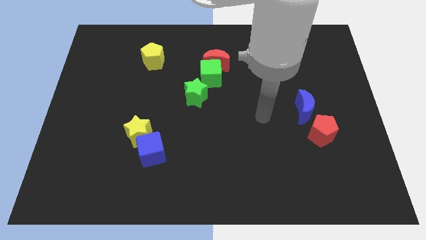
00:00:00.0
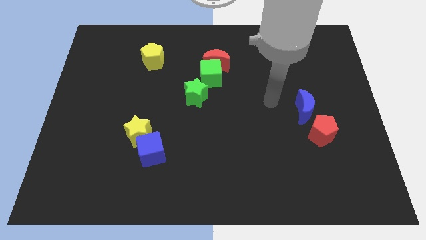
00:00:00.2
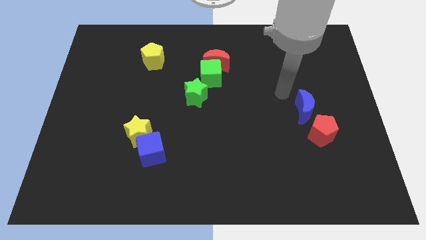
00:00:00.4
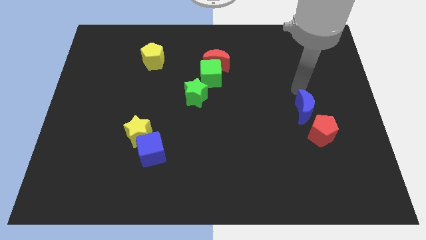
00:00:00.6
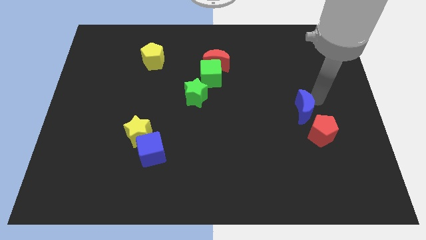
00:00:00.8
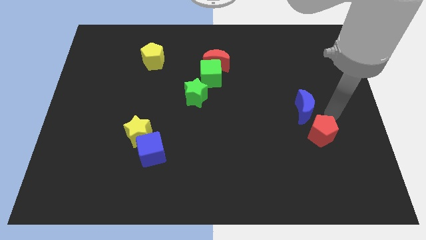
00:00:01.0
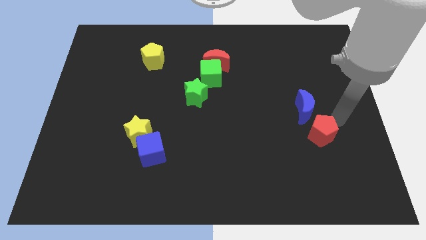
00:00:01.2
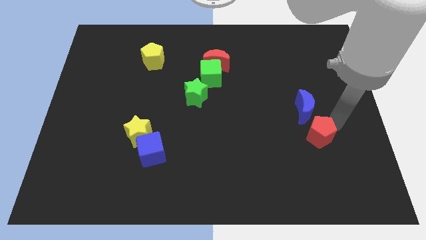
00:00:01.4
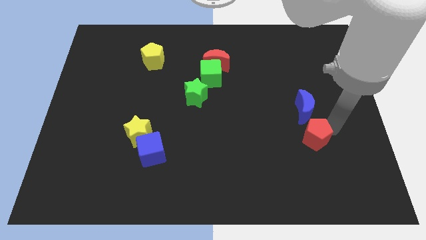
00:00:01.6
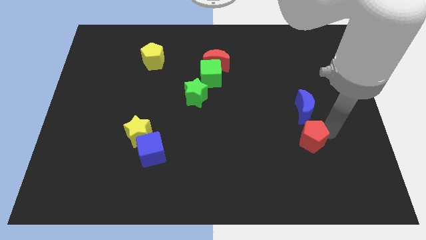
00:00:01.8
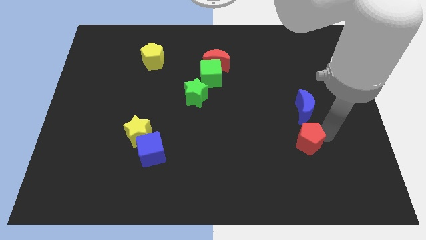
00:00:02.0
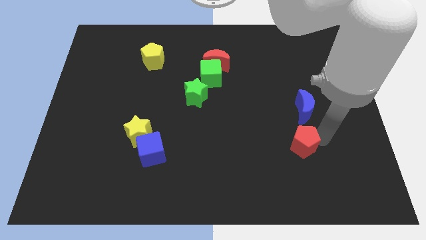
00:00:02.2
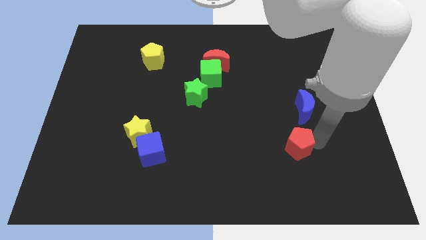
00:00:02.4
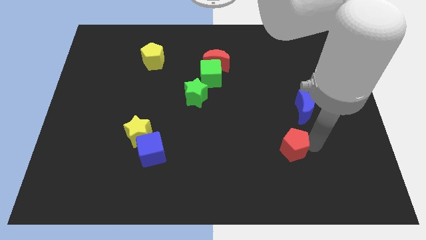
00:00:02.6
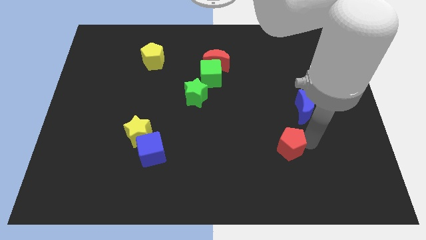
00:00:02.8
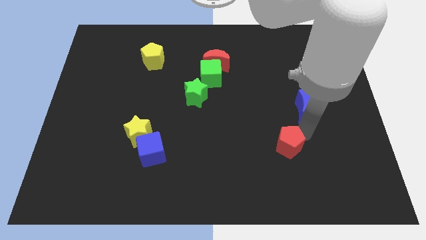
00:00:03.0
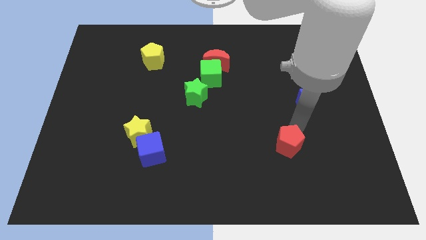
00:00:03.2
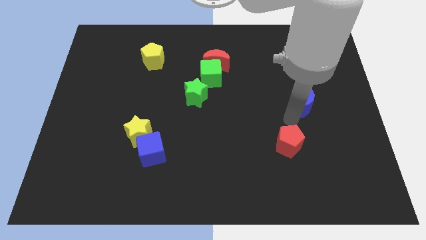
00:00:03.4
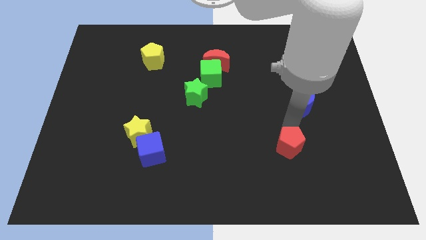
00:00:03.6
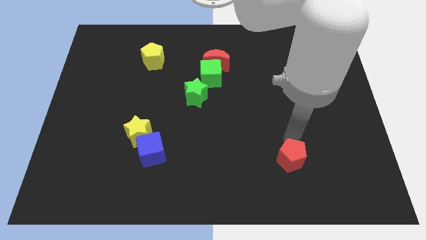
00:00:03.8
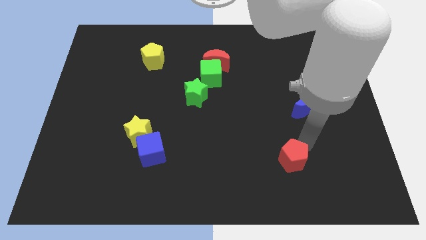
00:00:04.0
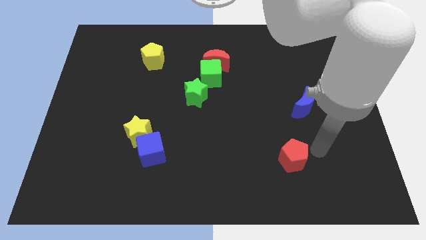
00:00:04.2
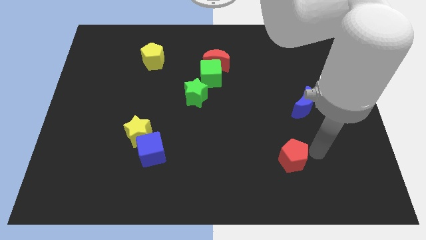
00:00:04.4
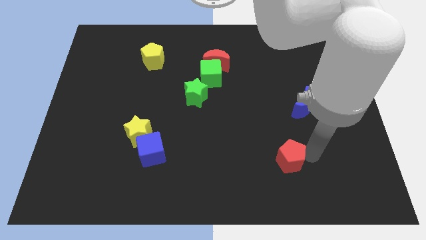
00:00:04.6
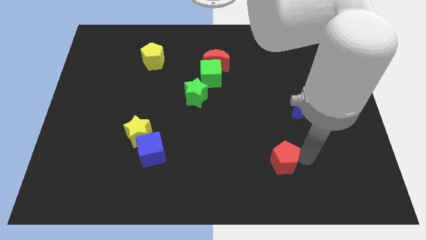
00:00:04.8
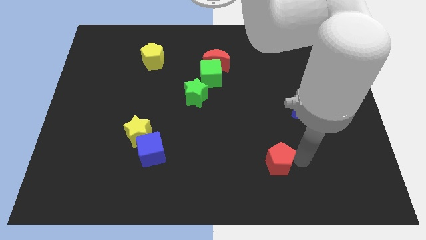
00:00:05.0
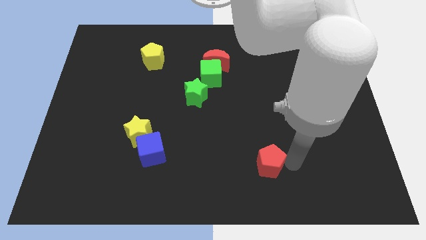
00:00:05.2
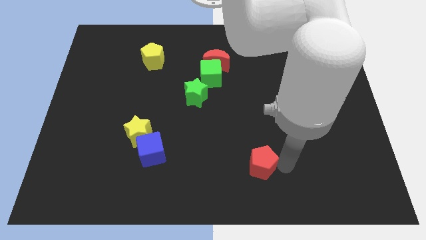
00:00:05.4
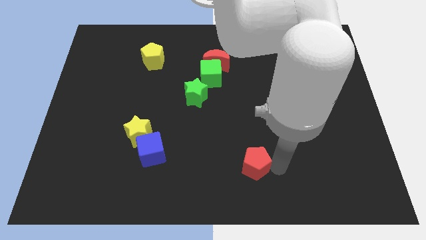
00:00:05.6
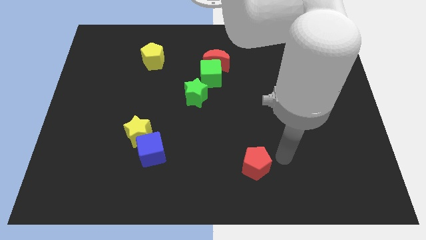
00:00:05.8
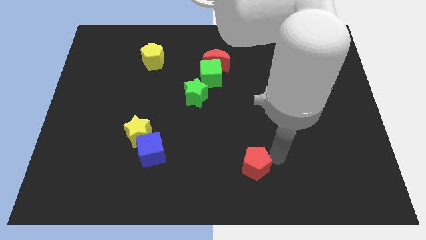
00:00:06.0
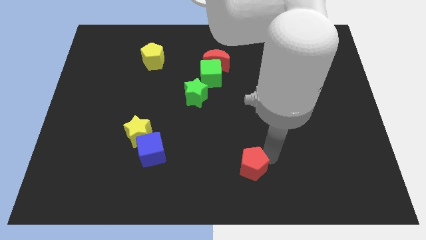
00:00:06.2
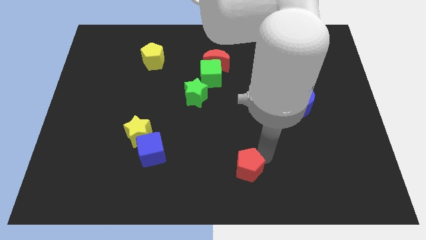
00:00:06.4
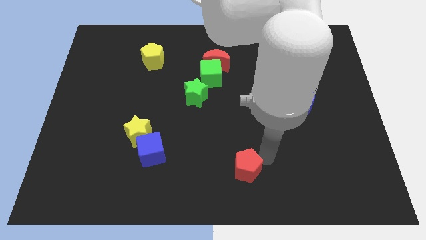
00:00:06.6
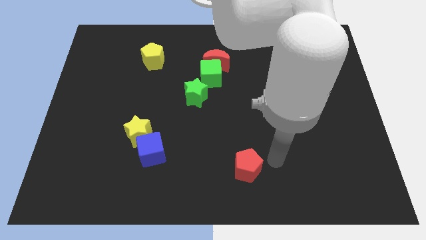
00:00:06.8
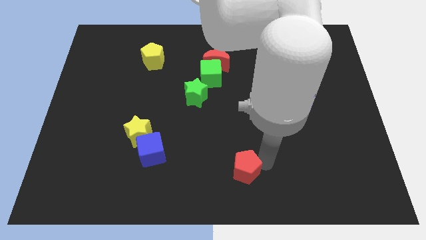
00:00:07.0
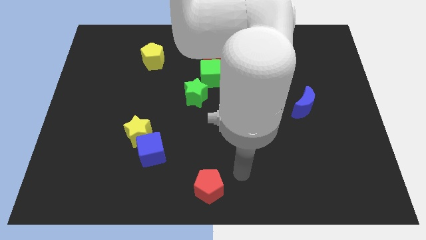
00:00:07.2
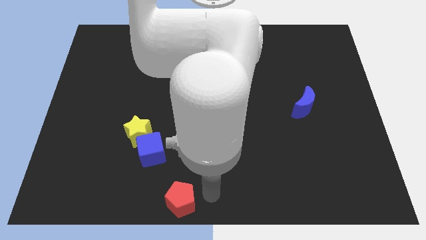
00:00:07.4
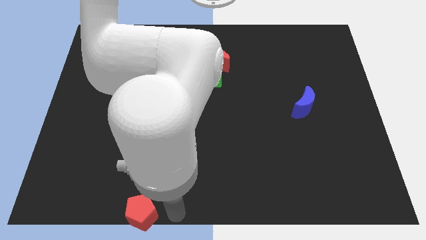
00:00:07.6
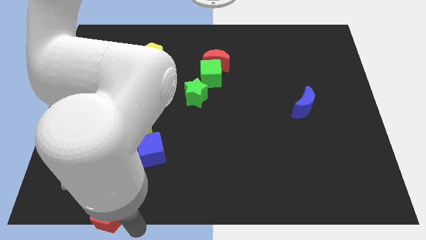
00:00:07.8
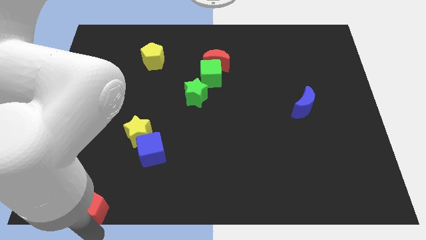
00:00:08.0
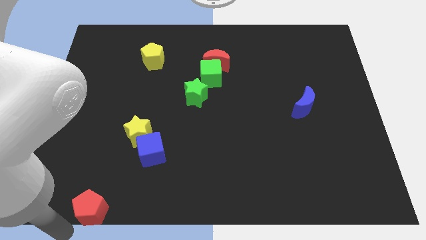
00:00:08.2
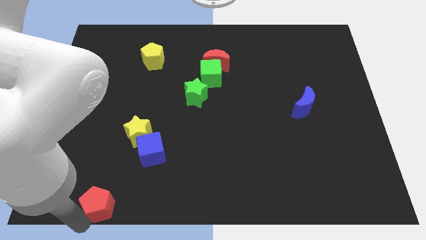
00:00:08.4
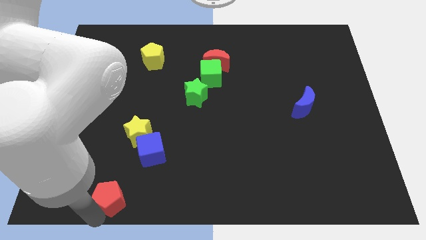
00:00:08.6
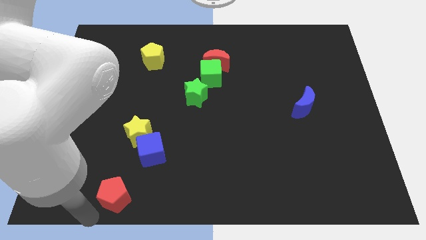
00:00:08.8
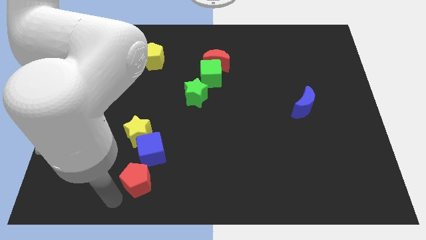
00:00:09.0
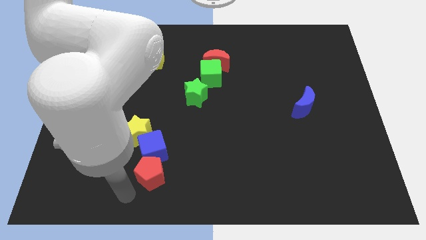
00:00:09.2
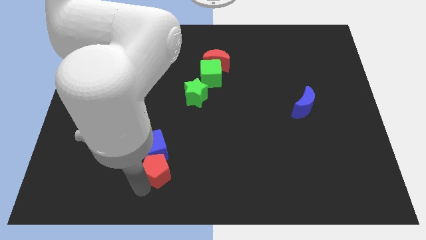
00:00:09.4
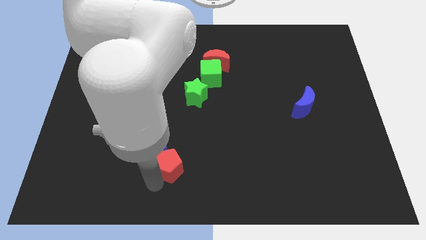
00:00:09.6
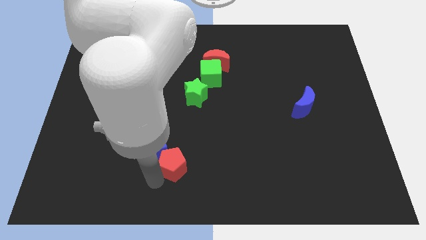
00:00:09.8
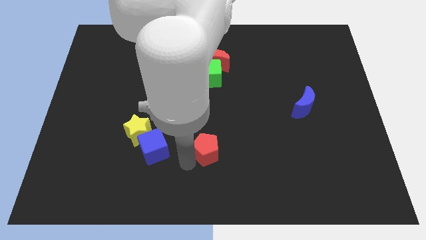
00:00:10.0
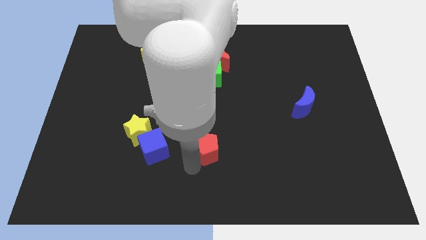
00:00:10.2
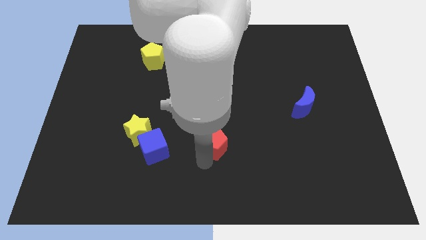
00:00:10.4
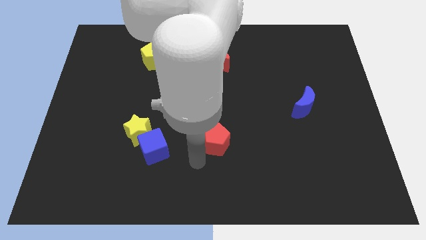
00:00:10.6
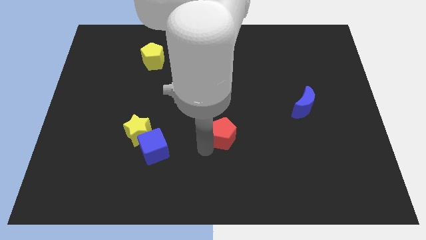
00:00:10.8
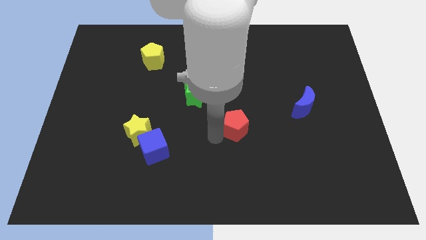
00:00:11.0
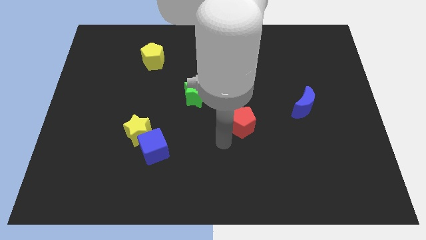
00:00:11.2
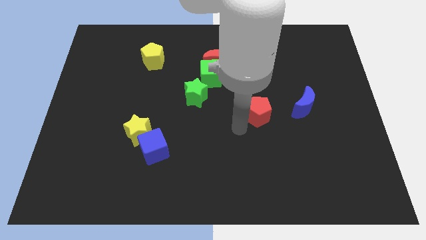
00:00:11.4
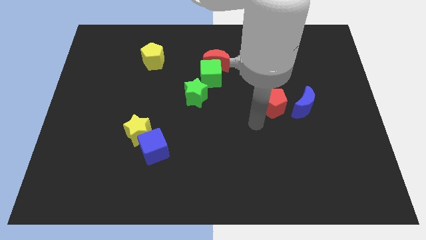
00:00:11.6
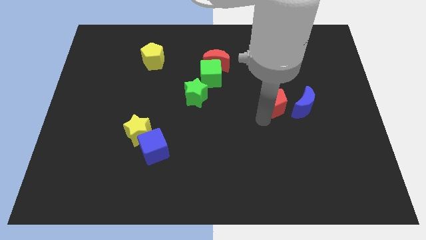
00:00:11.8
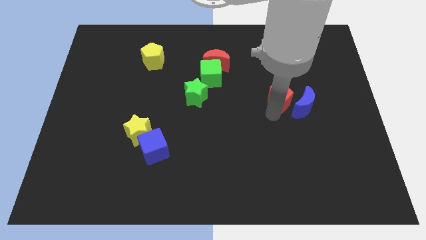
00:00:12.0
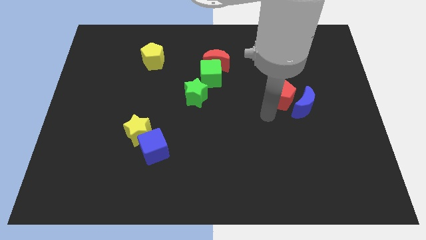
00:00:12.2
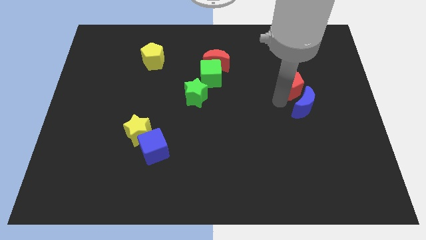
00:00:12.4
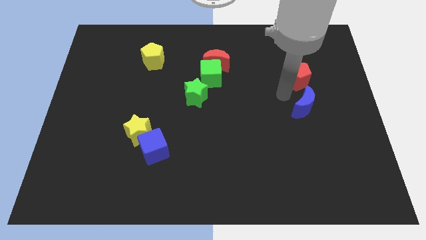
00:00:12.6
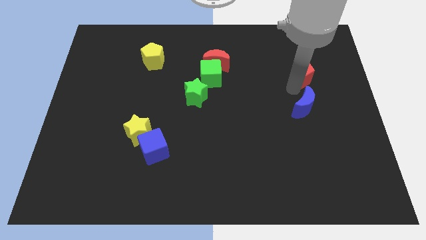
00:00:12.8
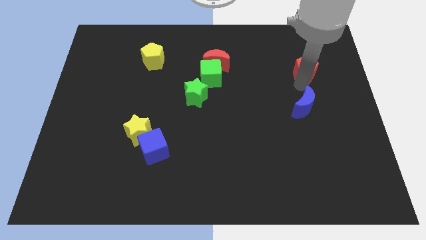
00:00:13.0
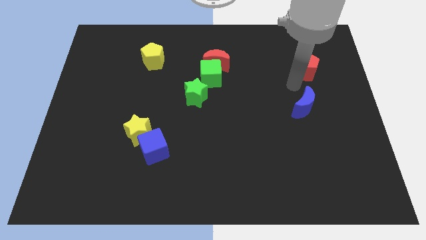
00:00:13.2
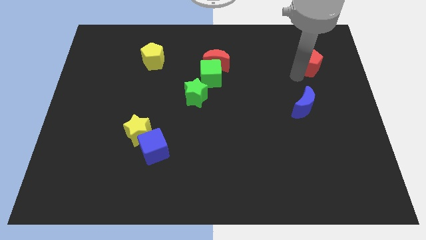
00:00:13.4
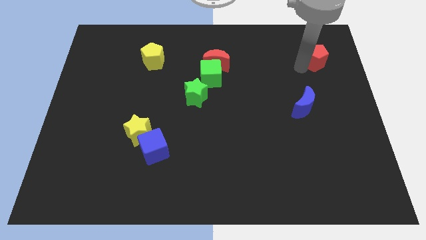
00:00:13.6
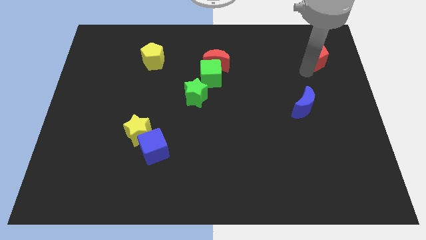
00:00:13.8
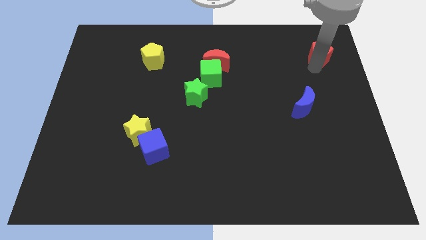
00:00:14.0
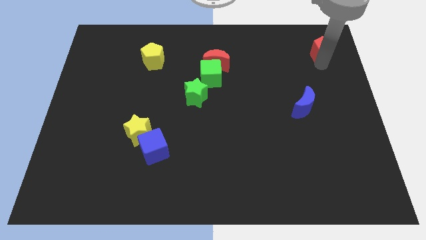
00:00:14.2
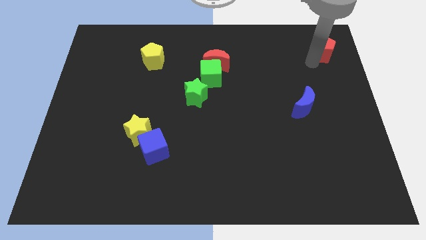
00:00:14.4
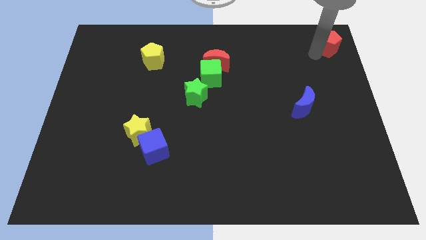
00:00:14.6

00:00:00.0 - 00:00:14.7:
move the red pentagon to the top right of the board
